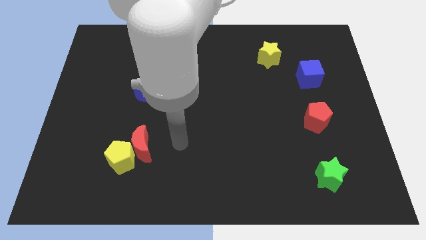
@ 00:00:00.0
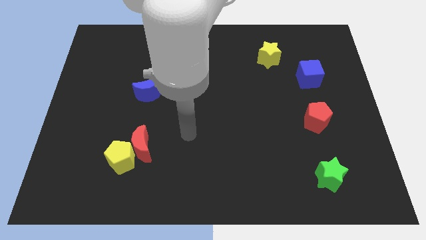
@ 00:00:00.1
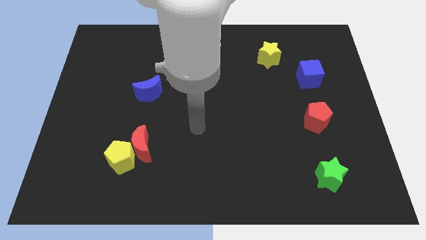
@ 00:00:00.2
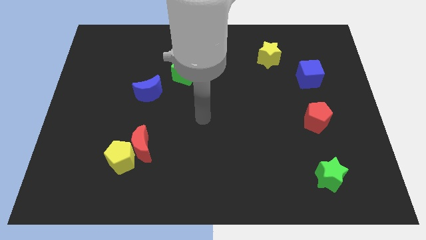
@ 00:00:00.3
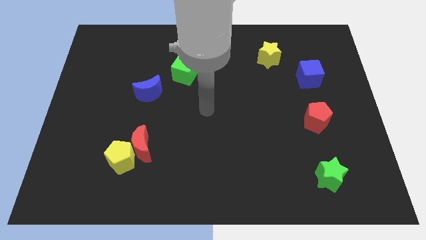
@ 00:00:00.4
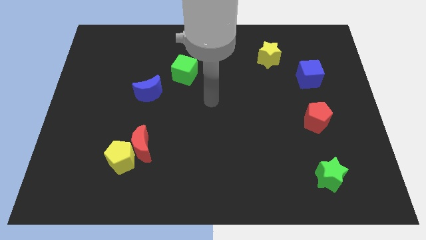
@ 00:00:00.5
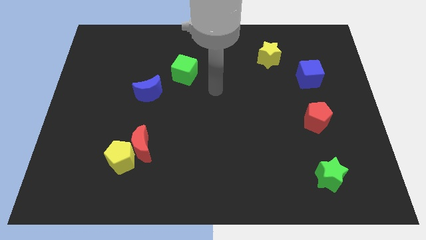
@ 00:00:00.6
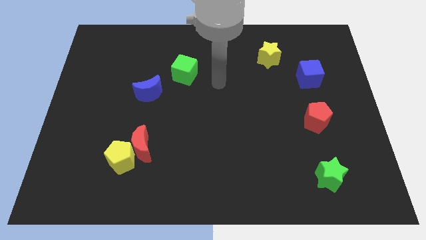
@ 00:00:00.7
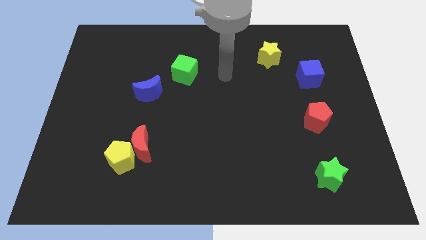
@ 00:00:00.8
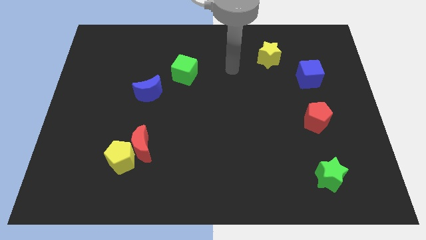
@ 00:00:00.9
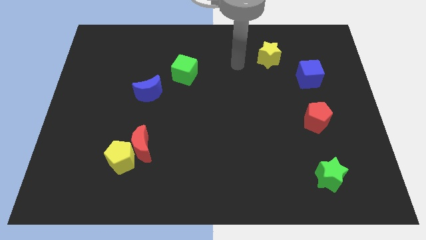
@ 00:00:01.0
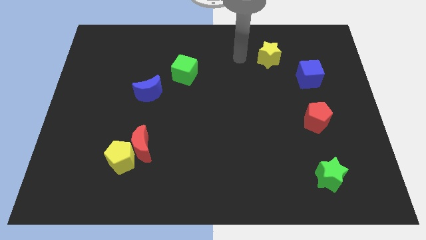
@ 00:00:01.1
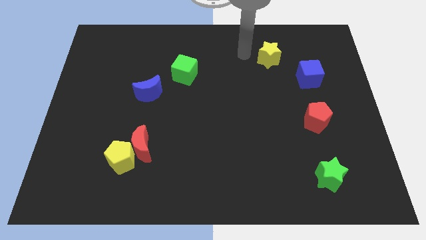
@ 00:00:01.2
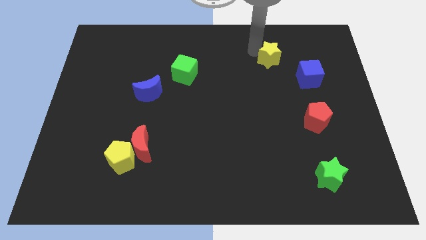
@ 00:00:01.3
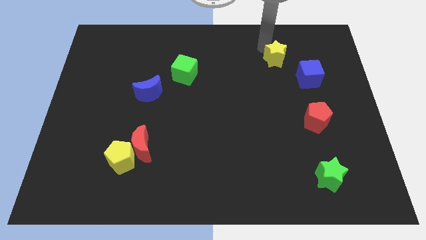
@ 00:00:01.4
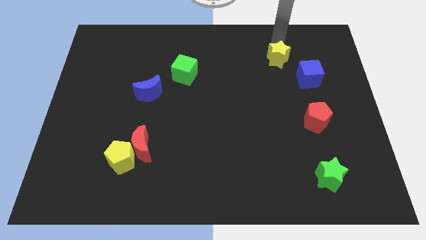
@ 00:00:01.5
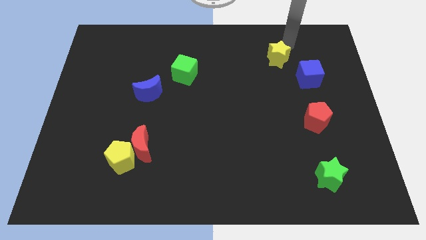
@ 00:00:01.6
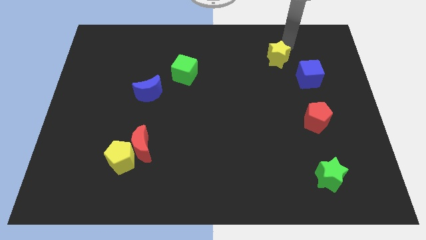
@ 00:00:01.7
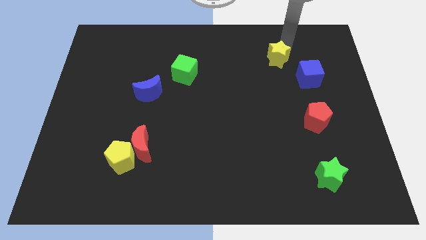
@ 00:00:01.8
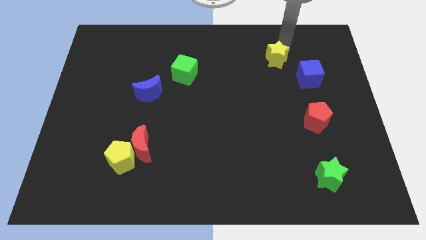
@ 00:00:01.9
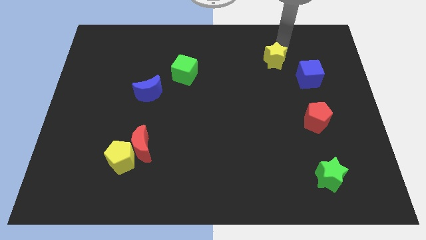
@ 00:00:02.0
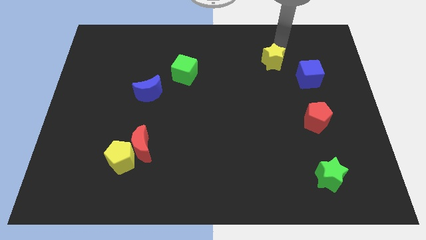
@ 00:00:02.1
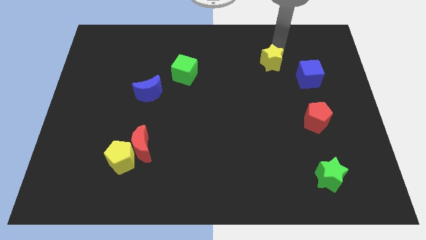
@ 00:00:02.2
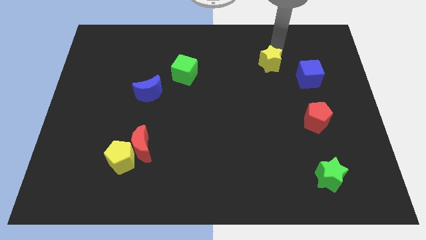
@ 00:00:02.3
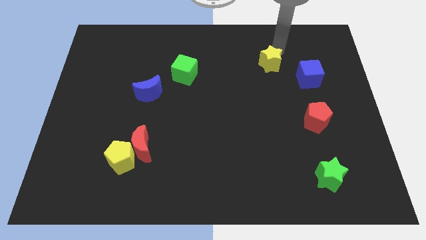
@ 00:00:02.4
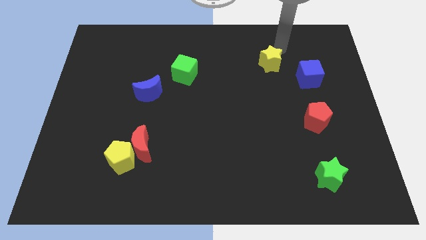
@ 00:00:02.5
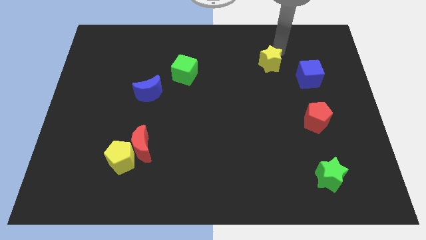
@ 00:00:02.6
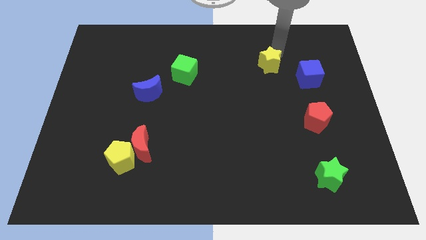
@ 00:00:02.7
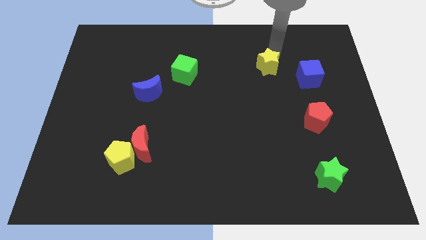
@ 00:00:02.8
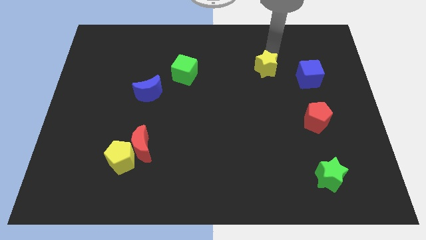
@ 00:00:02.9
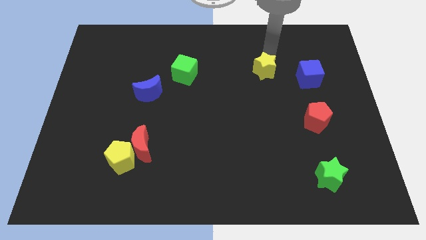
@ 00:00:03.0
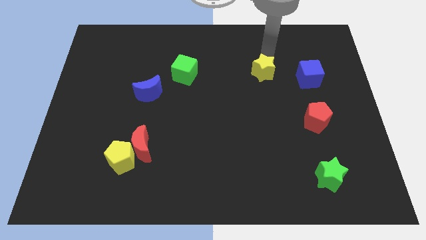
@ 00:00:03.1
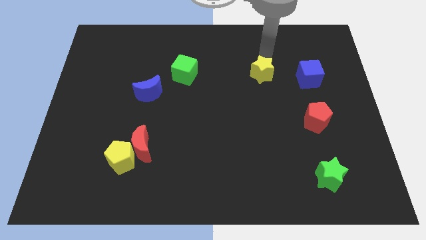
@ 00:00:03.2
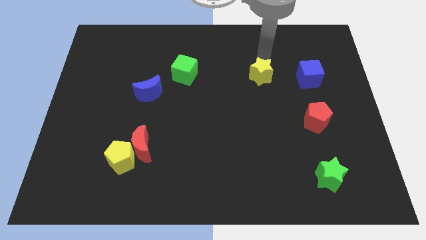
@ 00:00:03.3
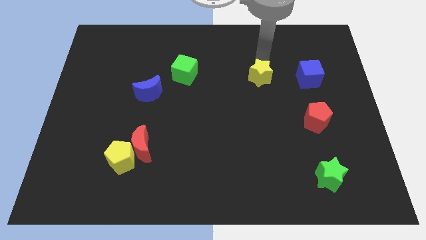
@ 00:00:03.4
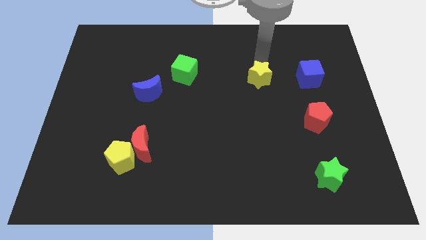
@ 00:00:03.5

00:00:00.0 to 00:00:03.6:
slightly move the yellow star down

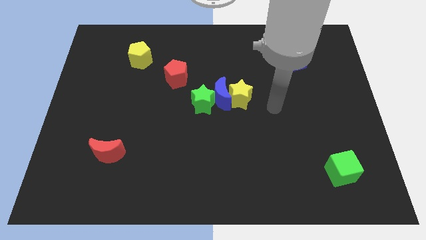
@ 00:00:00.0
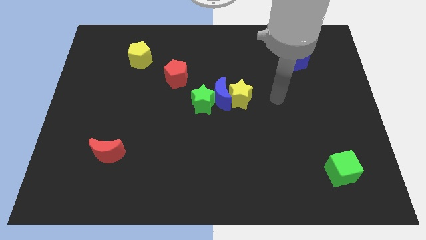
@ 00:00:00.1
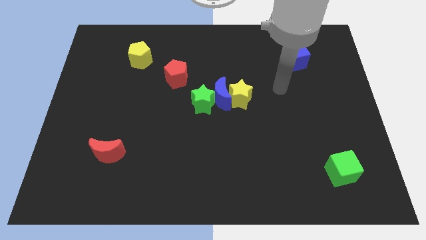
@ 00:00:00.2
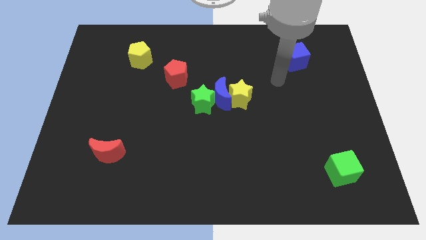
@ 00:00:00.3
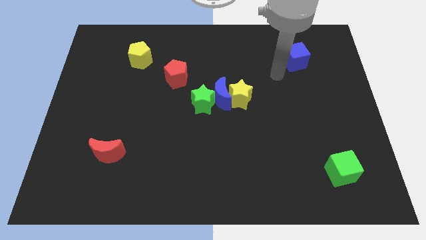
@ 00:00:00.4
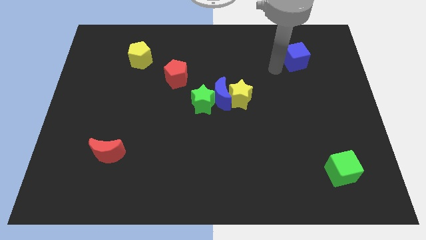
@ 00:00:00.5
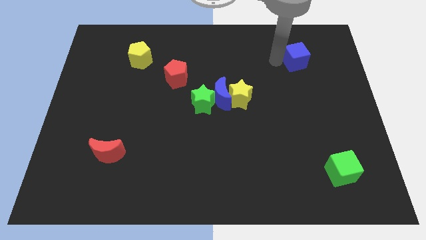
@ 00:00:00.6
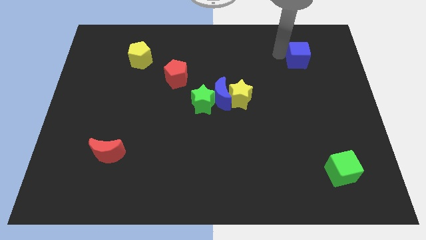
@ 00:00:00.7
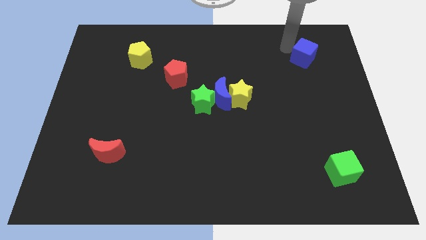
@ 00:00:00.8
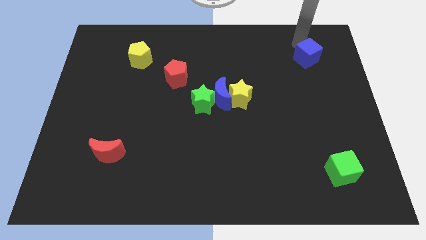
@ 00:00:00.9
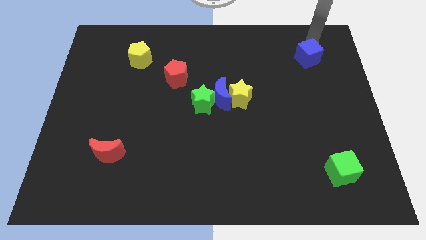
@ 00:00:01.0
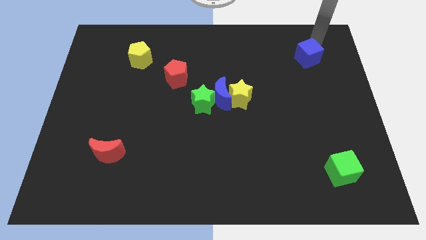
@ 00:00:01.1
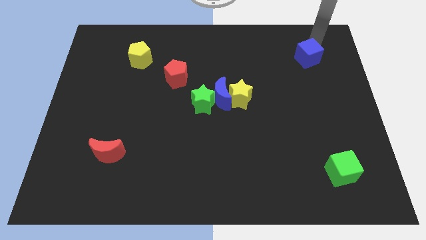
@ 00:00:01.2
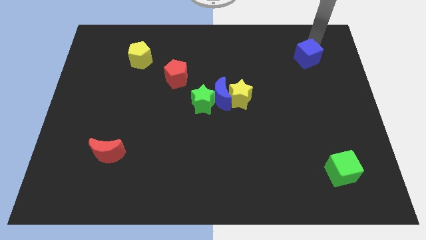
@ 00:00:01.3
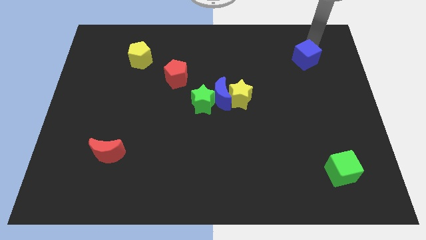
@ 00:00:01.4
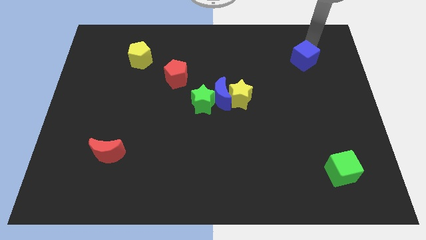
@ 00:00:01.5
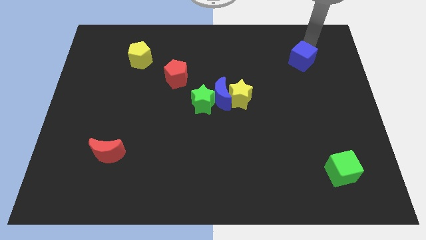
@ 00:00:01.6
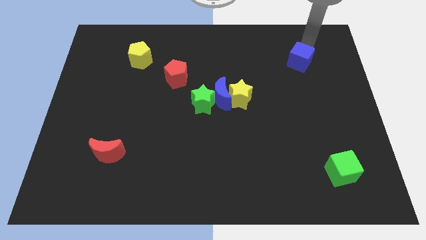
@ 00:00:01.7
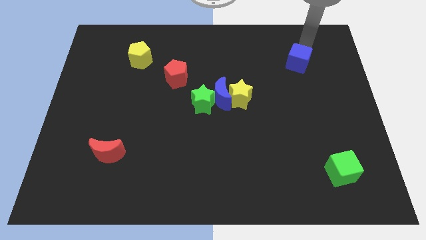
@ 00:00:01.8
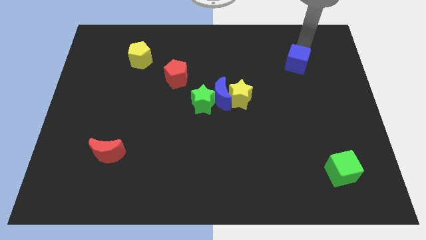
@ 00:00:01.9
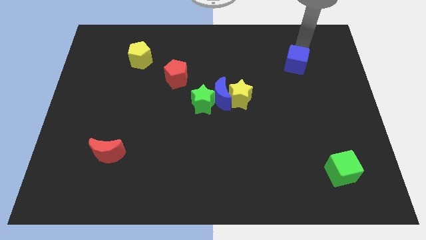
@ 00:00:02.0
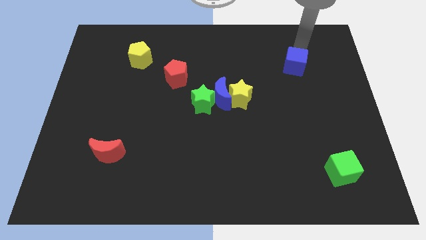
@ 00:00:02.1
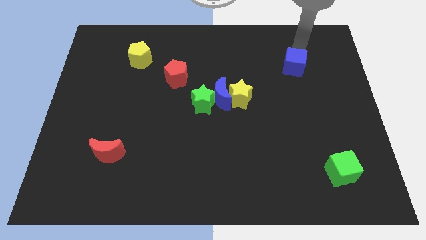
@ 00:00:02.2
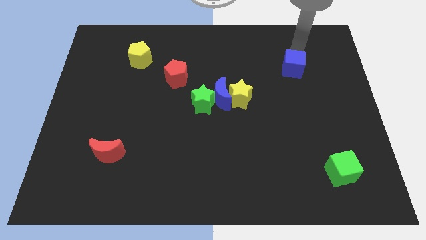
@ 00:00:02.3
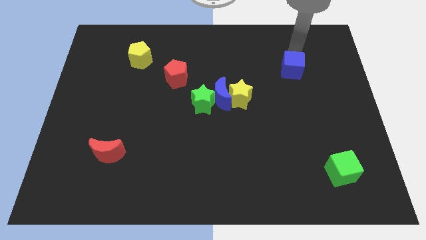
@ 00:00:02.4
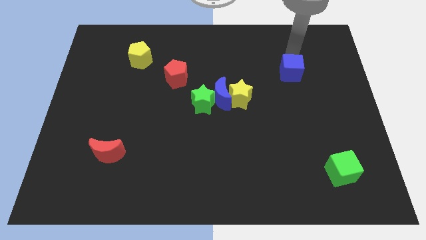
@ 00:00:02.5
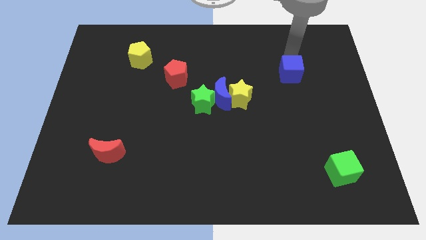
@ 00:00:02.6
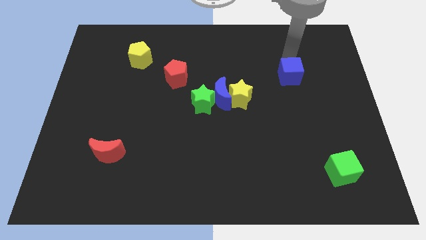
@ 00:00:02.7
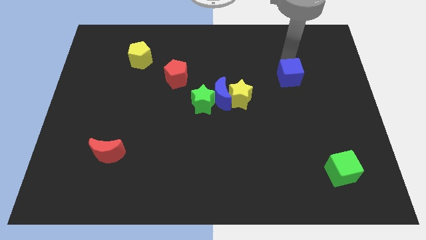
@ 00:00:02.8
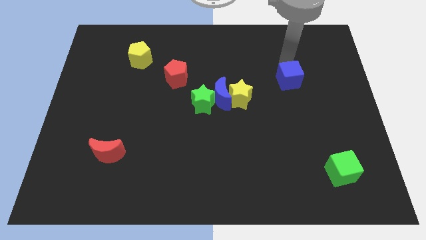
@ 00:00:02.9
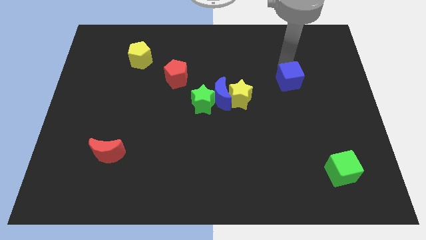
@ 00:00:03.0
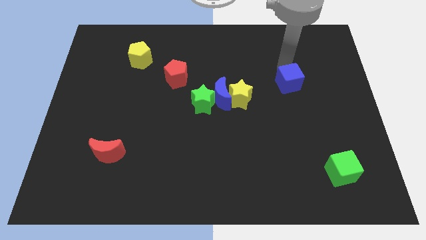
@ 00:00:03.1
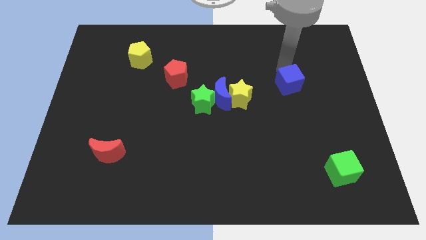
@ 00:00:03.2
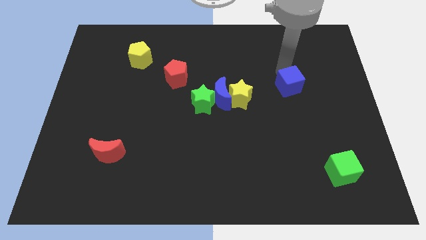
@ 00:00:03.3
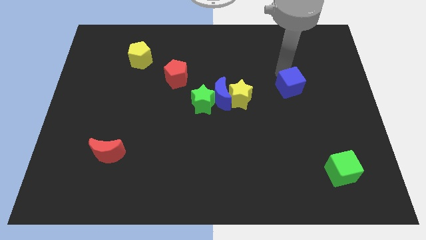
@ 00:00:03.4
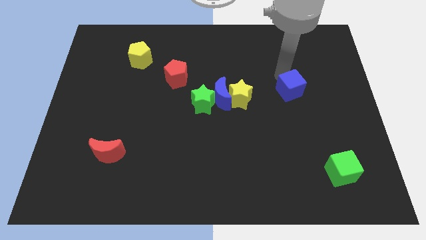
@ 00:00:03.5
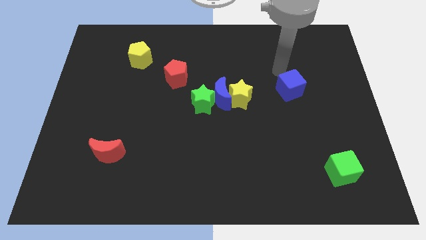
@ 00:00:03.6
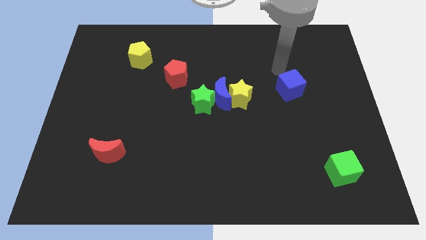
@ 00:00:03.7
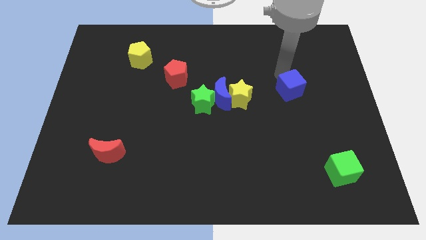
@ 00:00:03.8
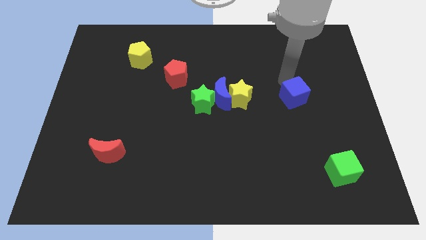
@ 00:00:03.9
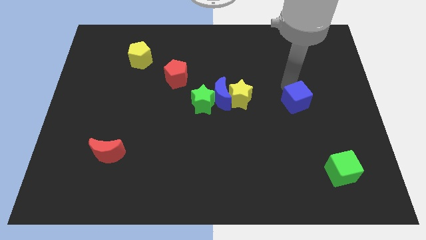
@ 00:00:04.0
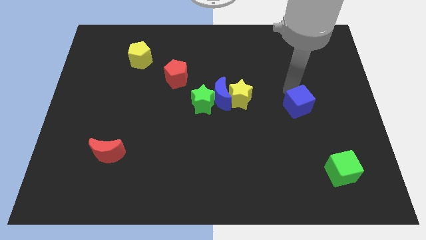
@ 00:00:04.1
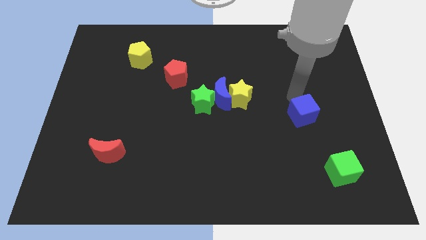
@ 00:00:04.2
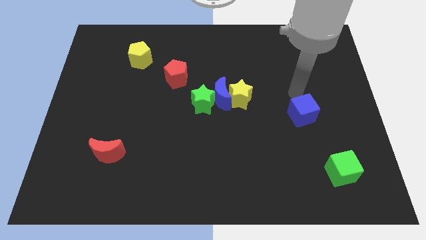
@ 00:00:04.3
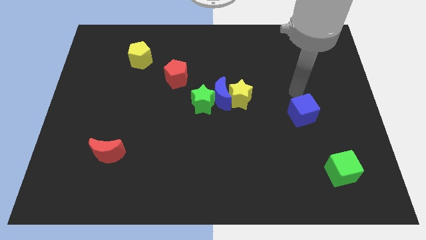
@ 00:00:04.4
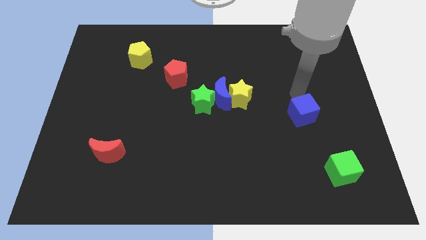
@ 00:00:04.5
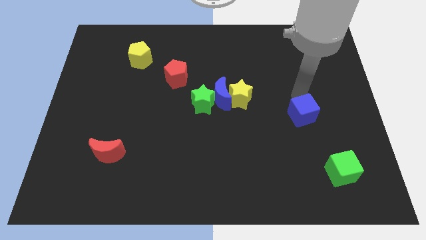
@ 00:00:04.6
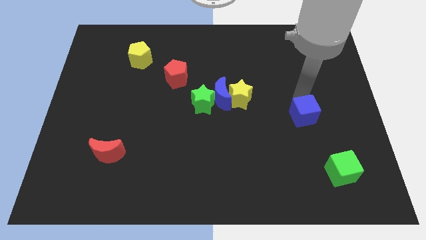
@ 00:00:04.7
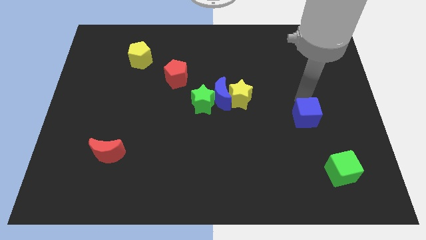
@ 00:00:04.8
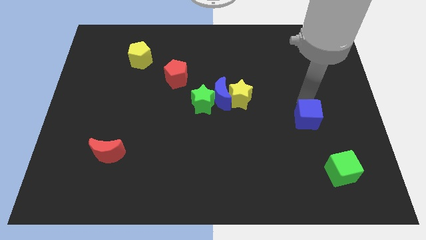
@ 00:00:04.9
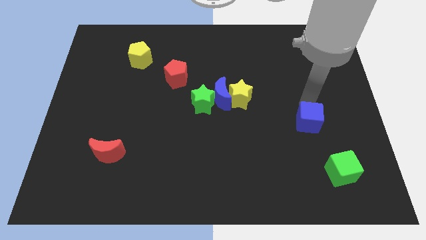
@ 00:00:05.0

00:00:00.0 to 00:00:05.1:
slide the blue cube downwards
